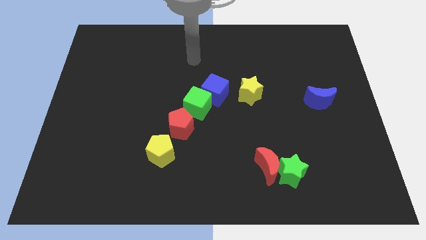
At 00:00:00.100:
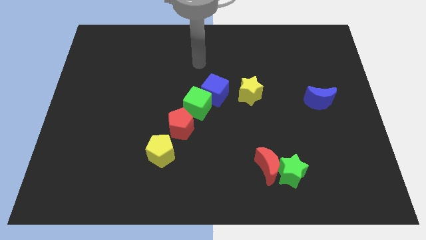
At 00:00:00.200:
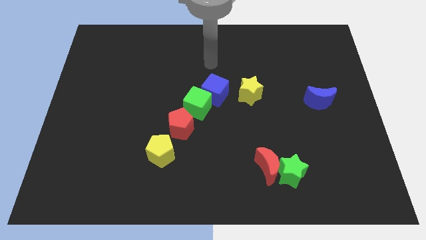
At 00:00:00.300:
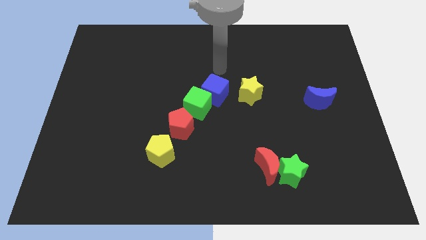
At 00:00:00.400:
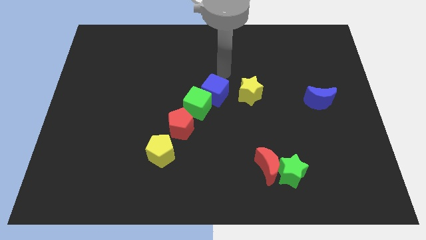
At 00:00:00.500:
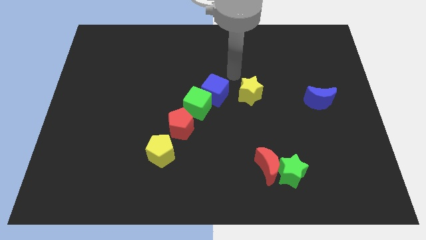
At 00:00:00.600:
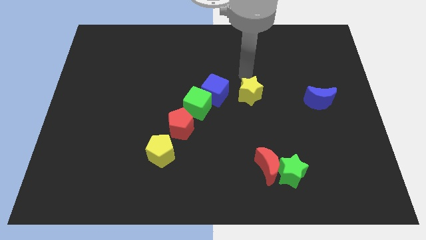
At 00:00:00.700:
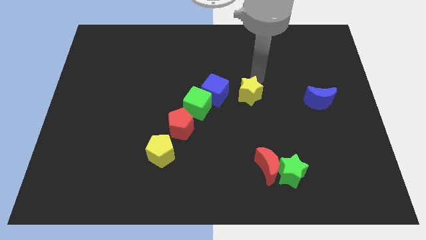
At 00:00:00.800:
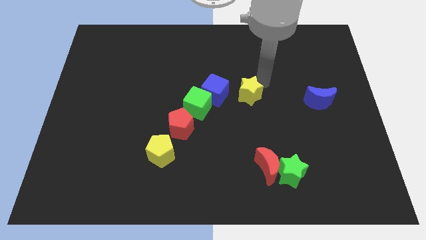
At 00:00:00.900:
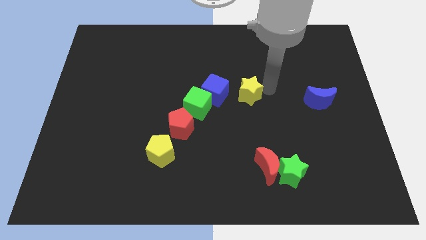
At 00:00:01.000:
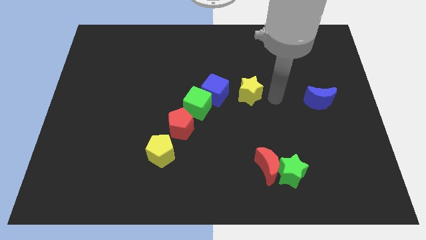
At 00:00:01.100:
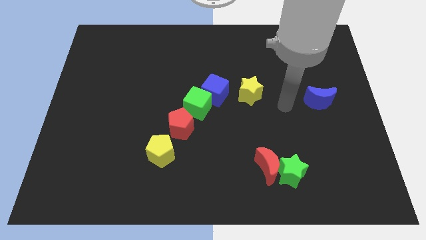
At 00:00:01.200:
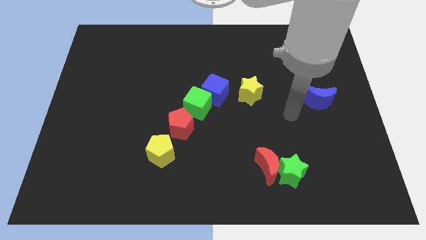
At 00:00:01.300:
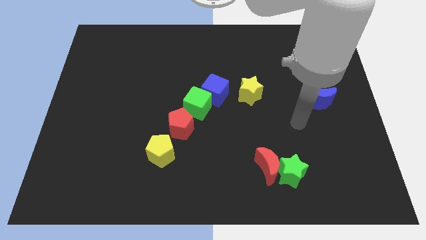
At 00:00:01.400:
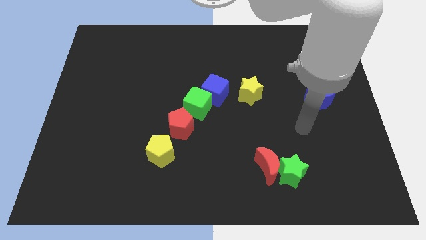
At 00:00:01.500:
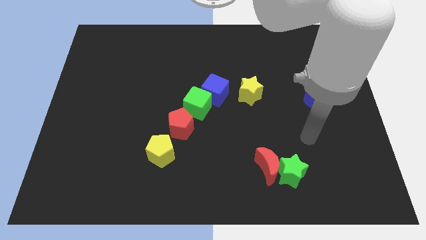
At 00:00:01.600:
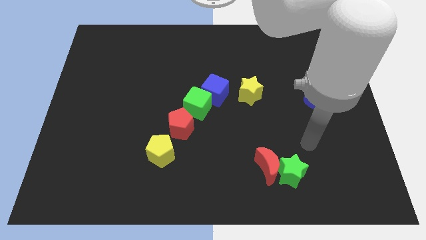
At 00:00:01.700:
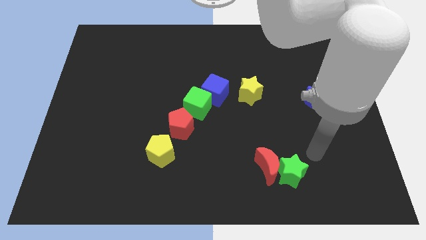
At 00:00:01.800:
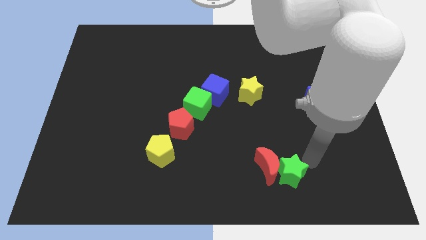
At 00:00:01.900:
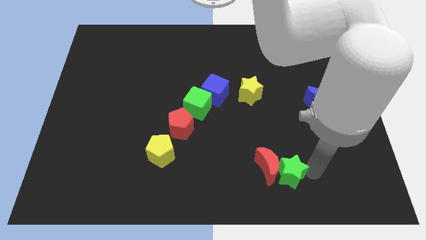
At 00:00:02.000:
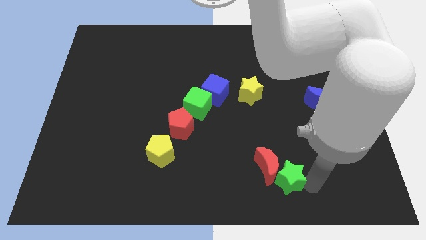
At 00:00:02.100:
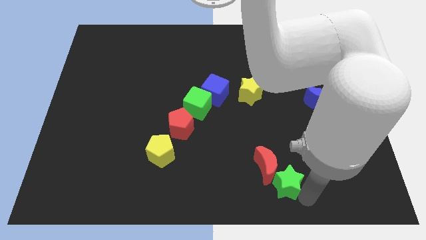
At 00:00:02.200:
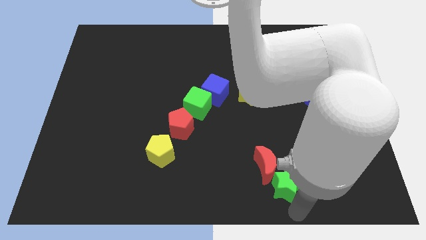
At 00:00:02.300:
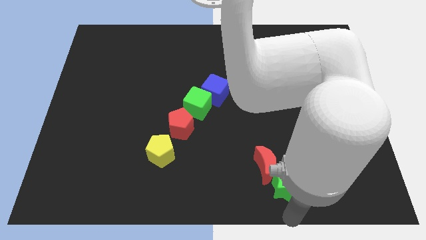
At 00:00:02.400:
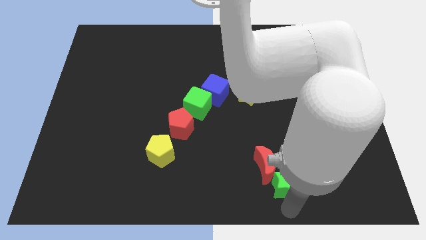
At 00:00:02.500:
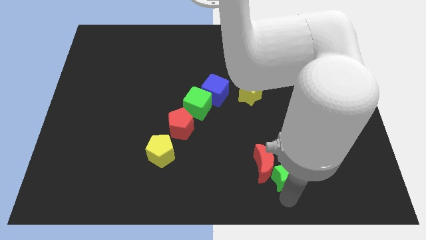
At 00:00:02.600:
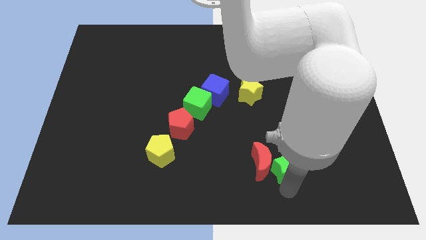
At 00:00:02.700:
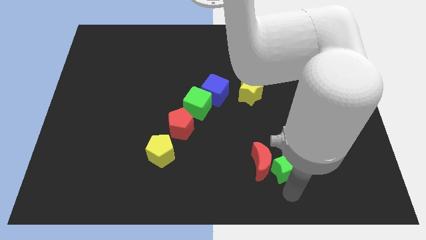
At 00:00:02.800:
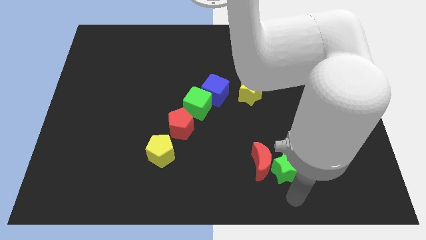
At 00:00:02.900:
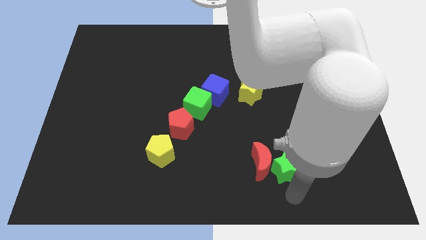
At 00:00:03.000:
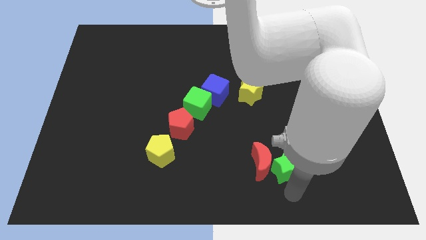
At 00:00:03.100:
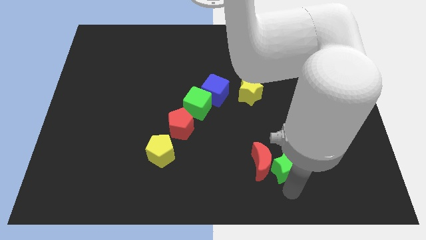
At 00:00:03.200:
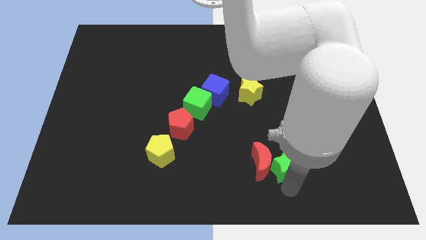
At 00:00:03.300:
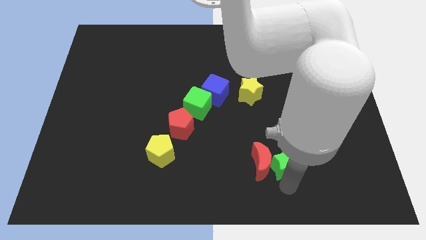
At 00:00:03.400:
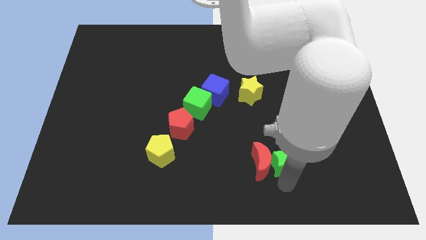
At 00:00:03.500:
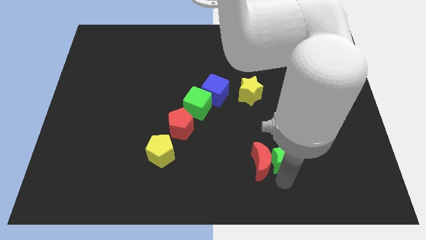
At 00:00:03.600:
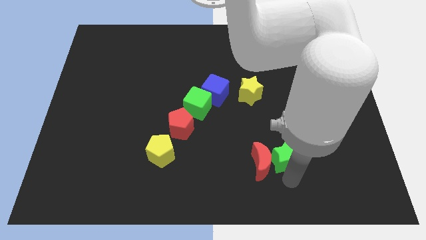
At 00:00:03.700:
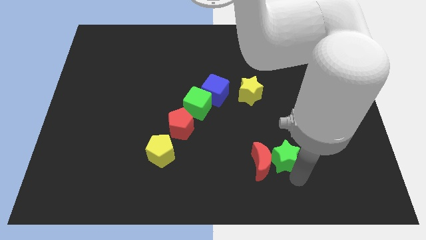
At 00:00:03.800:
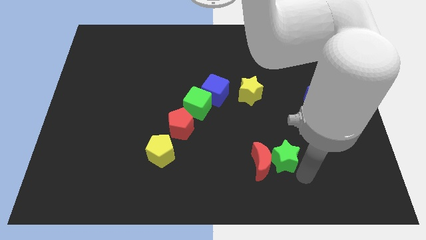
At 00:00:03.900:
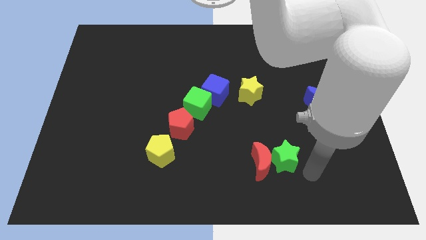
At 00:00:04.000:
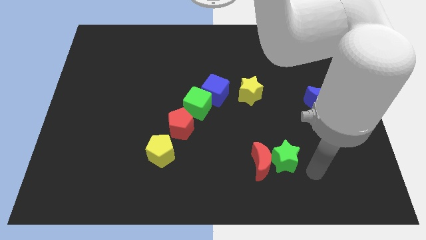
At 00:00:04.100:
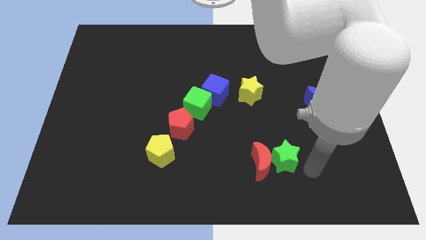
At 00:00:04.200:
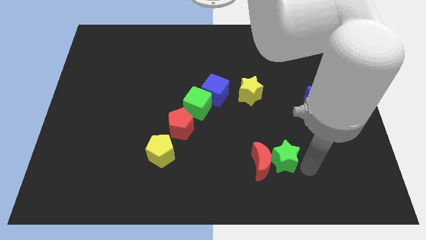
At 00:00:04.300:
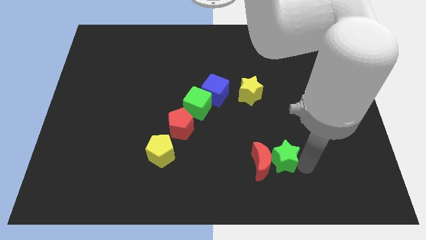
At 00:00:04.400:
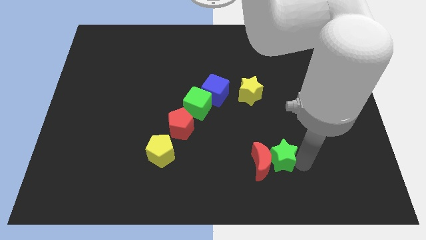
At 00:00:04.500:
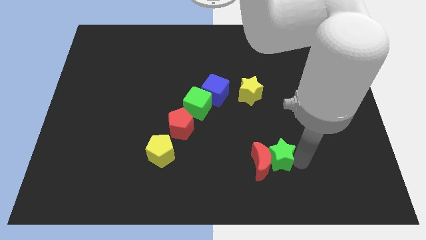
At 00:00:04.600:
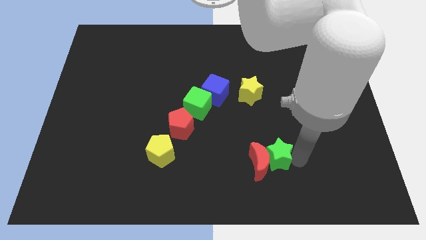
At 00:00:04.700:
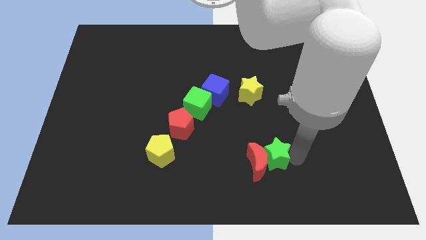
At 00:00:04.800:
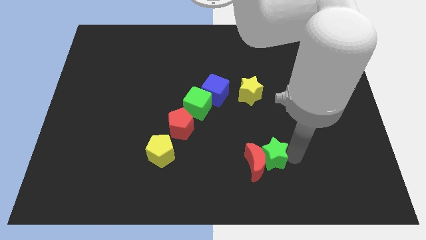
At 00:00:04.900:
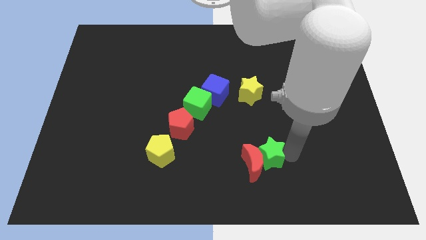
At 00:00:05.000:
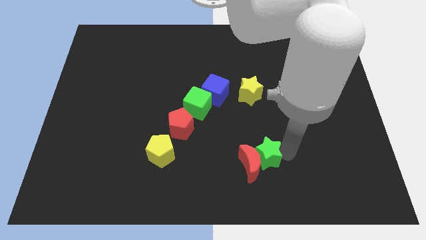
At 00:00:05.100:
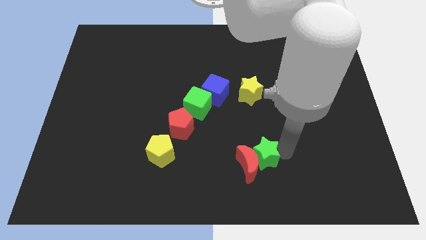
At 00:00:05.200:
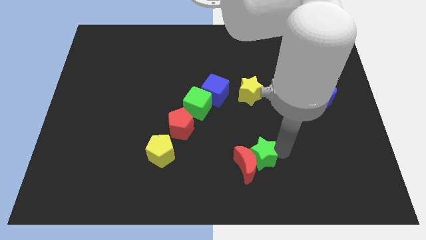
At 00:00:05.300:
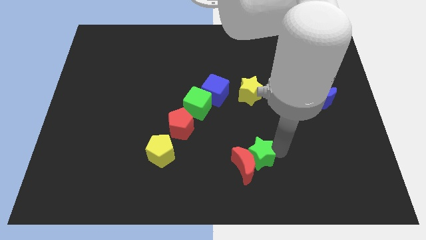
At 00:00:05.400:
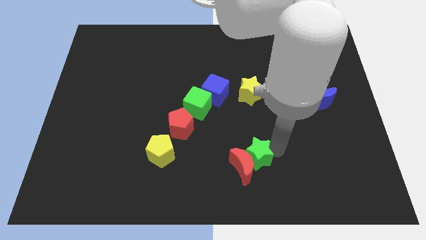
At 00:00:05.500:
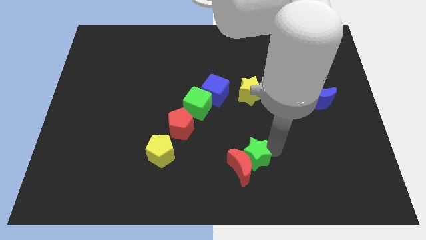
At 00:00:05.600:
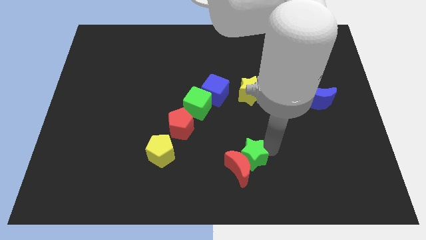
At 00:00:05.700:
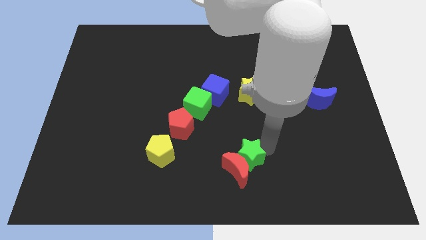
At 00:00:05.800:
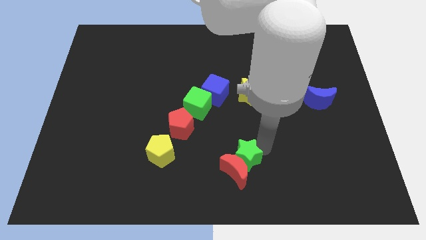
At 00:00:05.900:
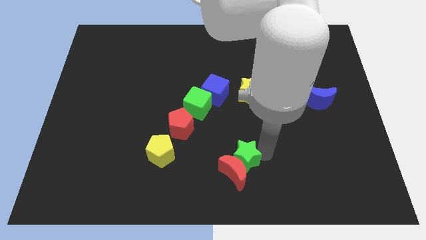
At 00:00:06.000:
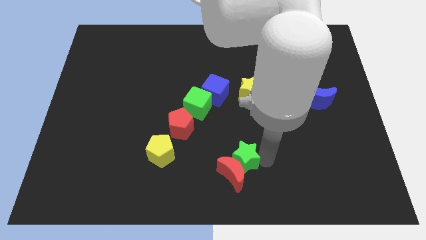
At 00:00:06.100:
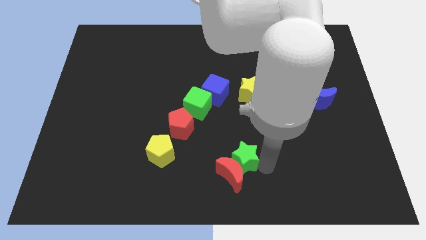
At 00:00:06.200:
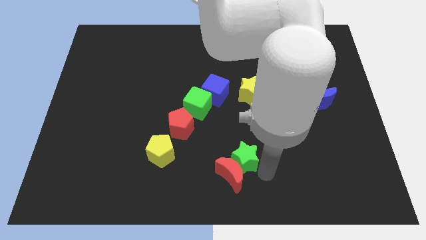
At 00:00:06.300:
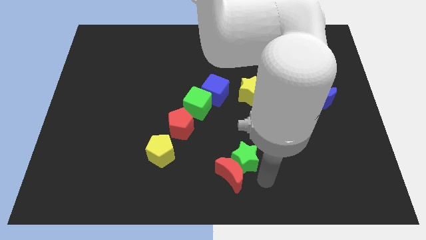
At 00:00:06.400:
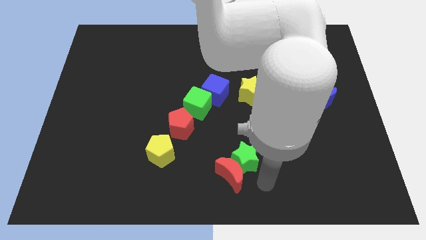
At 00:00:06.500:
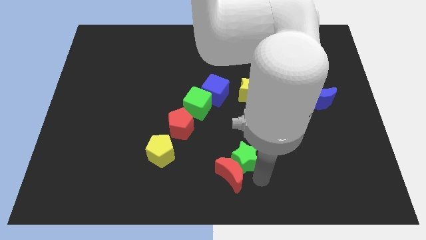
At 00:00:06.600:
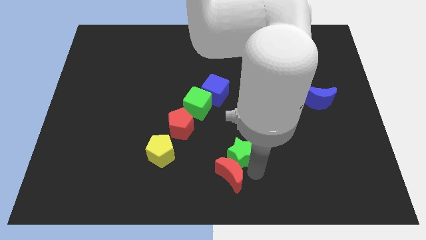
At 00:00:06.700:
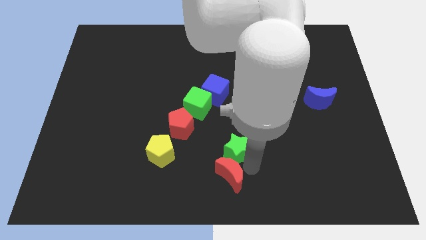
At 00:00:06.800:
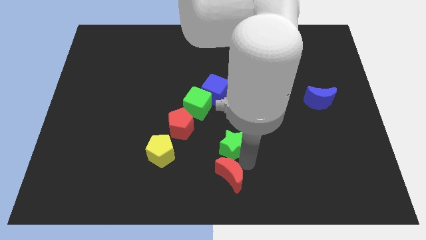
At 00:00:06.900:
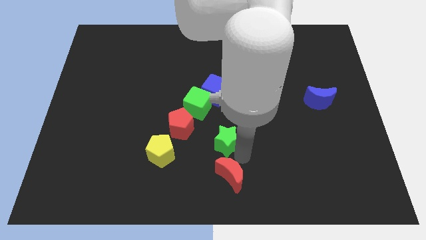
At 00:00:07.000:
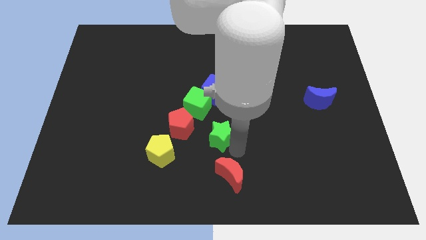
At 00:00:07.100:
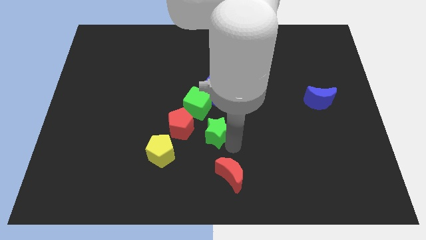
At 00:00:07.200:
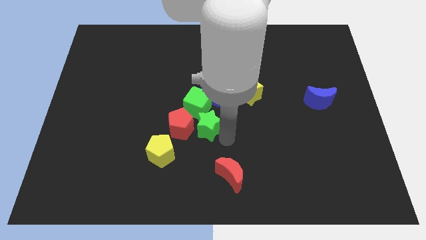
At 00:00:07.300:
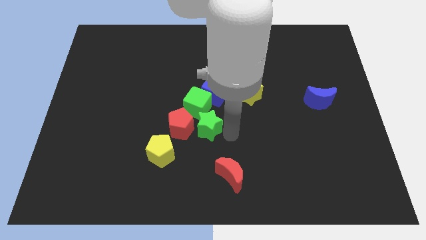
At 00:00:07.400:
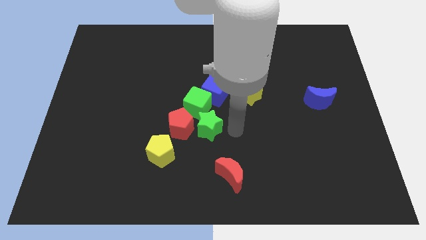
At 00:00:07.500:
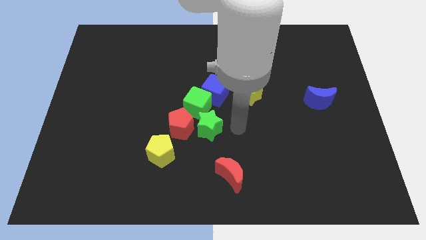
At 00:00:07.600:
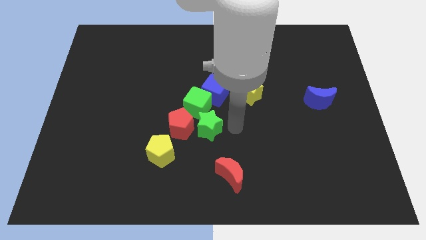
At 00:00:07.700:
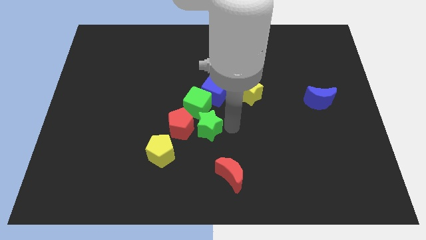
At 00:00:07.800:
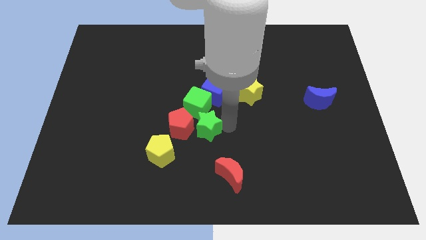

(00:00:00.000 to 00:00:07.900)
push the green star next to the red pentagon
